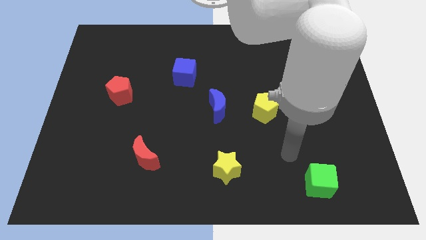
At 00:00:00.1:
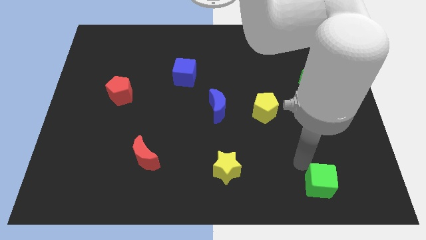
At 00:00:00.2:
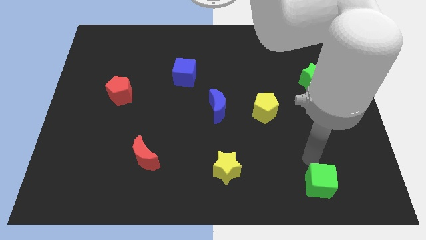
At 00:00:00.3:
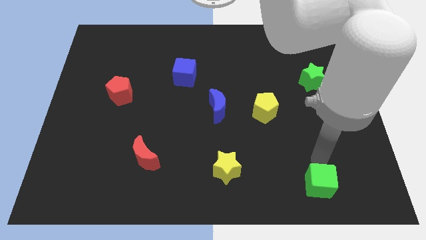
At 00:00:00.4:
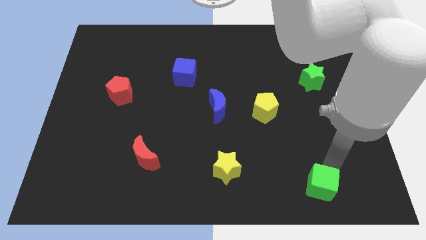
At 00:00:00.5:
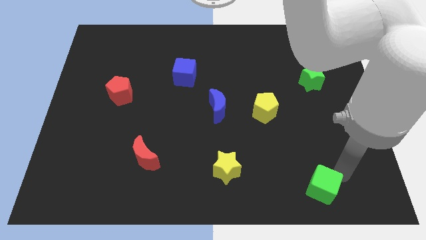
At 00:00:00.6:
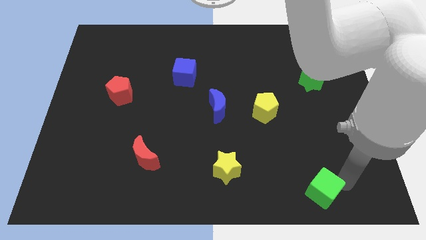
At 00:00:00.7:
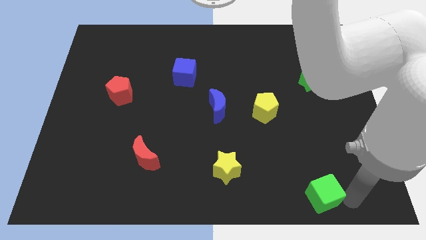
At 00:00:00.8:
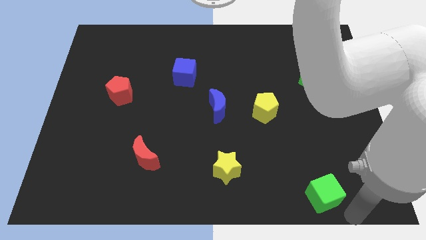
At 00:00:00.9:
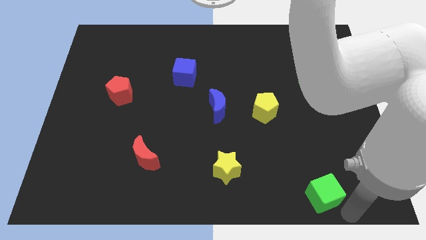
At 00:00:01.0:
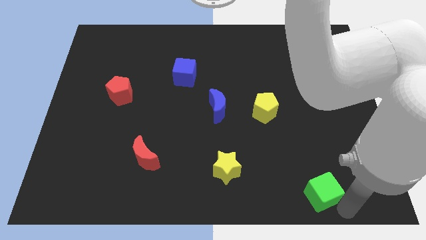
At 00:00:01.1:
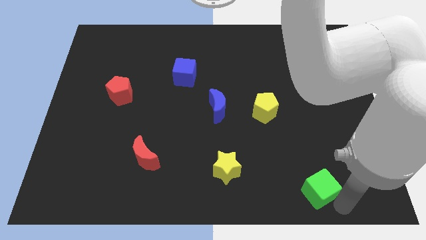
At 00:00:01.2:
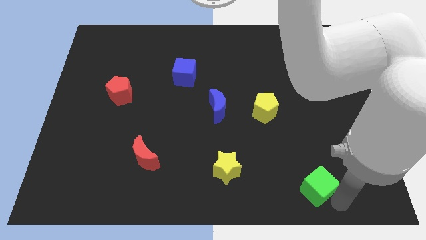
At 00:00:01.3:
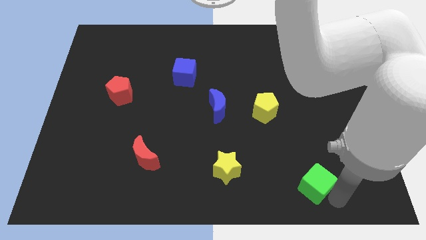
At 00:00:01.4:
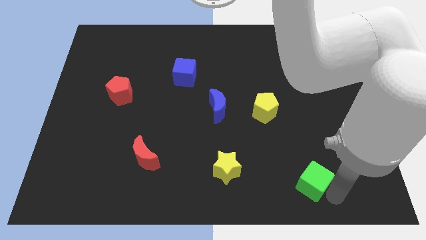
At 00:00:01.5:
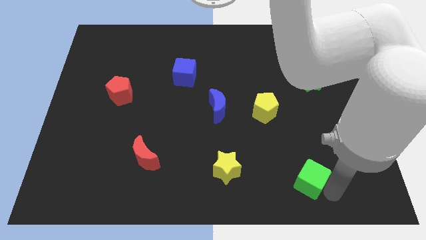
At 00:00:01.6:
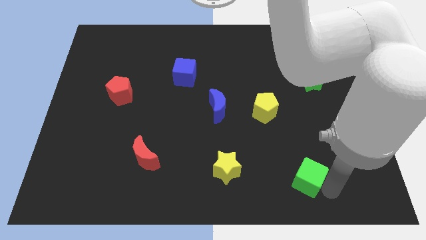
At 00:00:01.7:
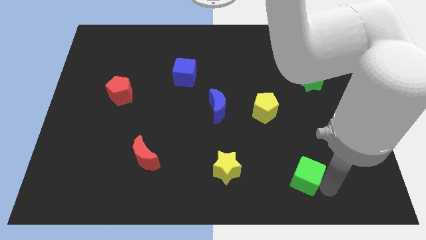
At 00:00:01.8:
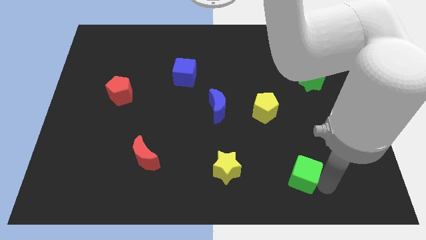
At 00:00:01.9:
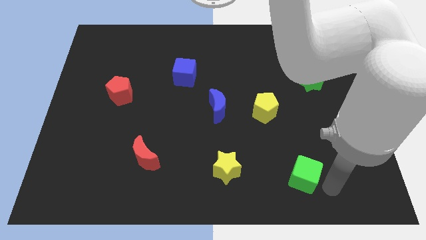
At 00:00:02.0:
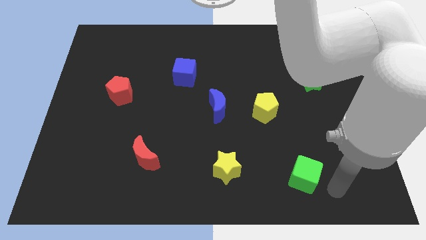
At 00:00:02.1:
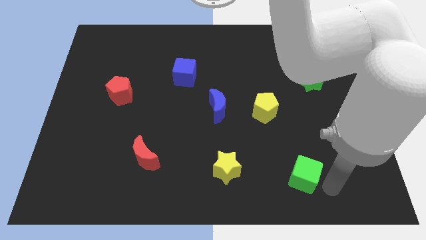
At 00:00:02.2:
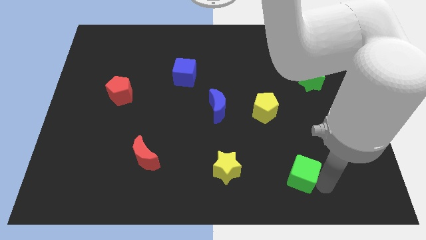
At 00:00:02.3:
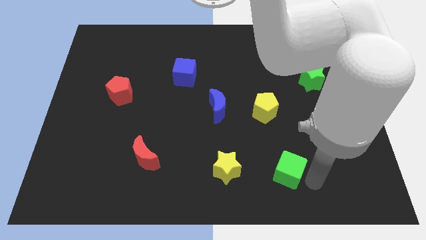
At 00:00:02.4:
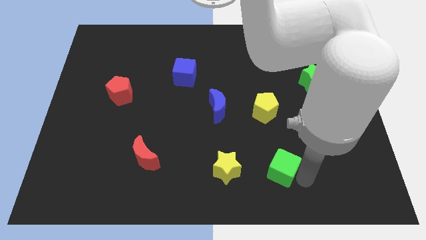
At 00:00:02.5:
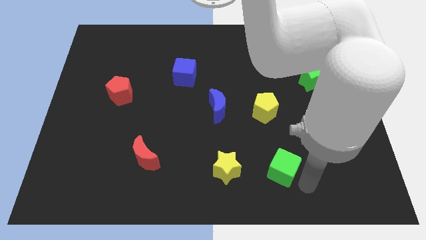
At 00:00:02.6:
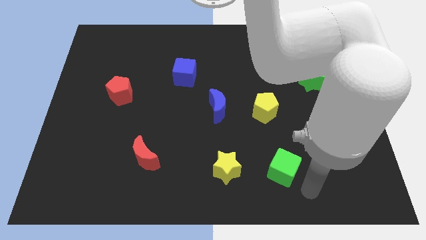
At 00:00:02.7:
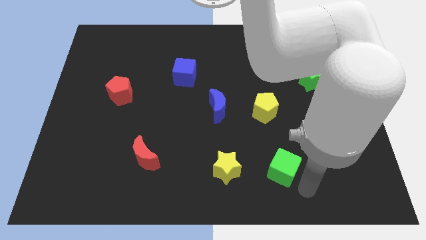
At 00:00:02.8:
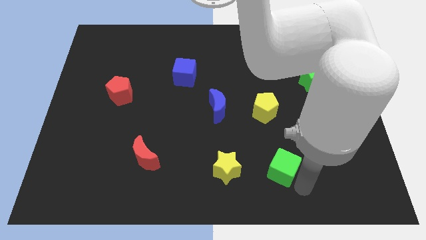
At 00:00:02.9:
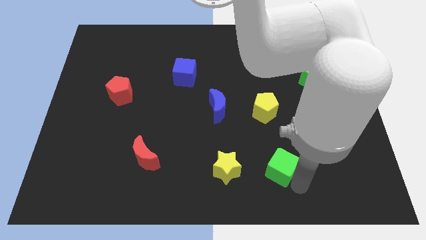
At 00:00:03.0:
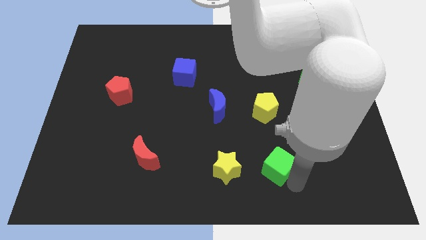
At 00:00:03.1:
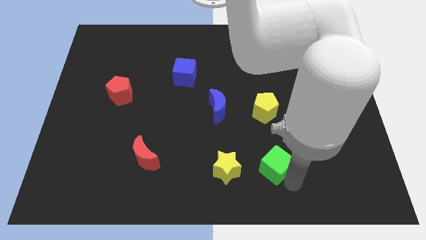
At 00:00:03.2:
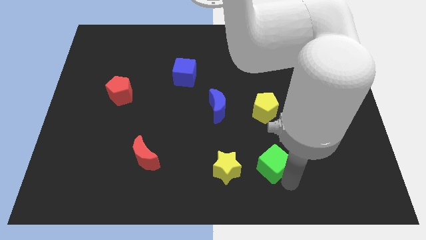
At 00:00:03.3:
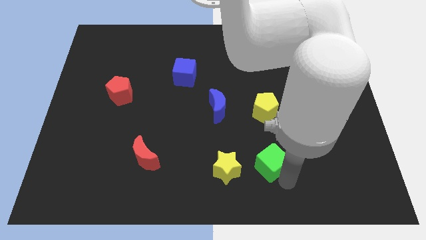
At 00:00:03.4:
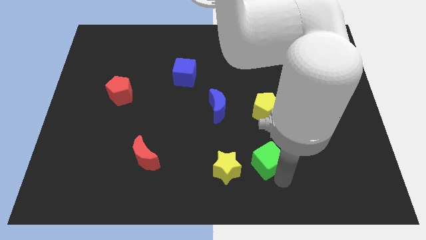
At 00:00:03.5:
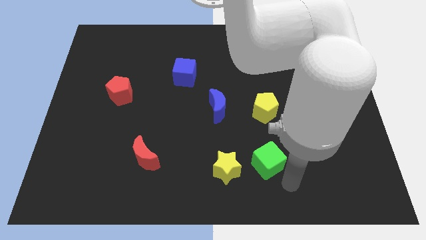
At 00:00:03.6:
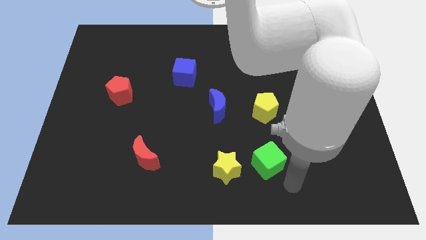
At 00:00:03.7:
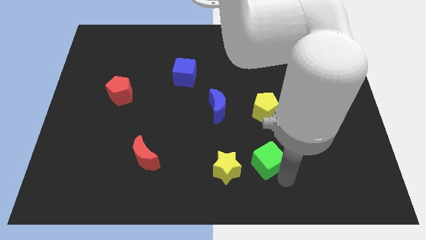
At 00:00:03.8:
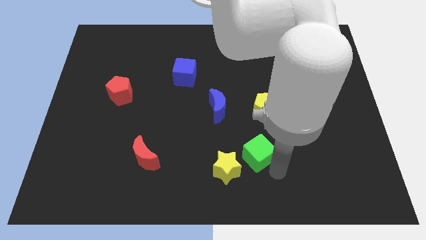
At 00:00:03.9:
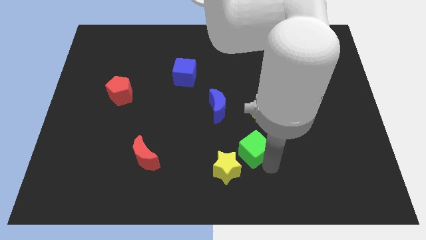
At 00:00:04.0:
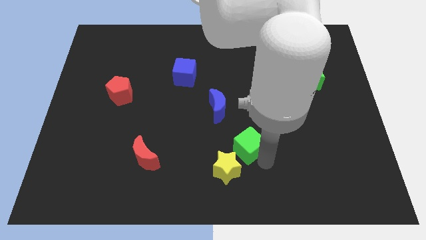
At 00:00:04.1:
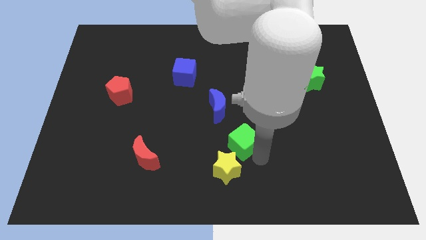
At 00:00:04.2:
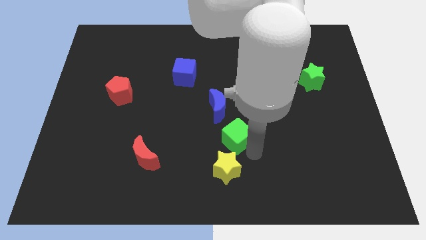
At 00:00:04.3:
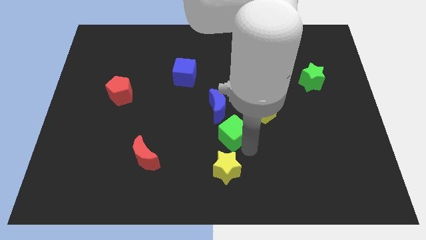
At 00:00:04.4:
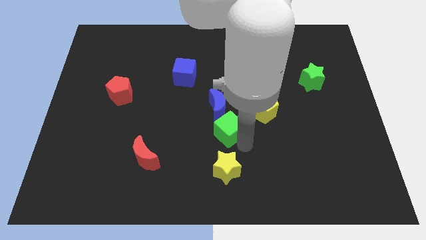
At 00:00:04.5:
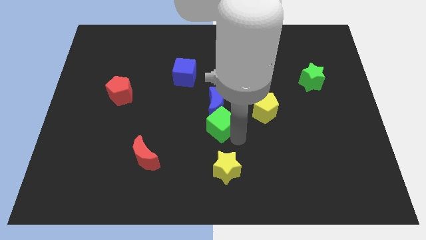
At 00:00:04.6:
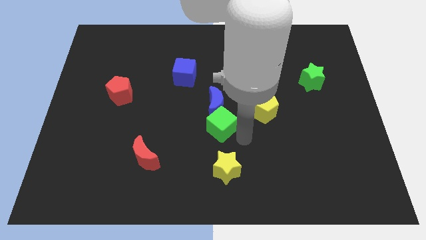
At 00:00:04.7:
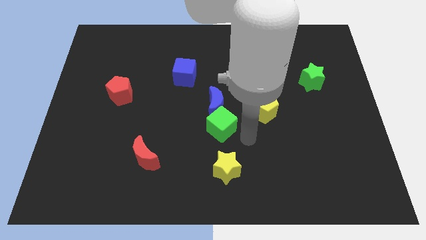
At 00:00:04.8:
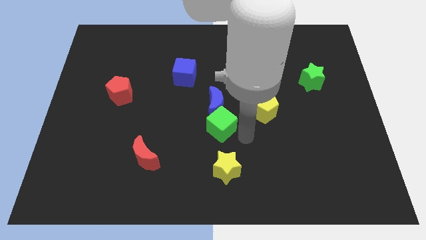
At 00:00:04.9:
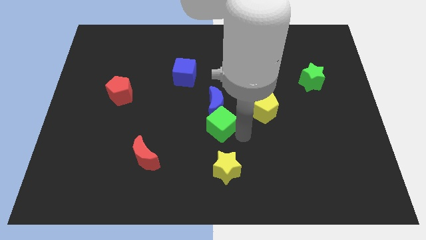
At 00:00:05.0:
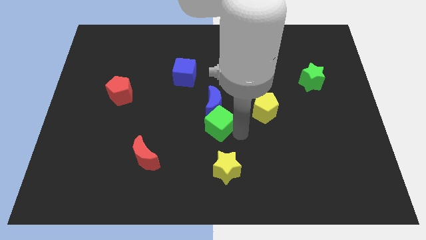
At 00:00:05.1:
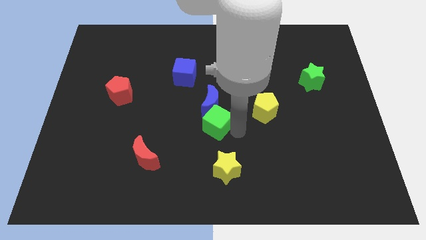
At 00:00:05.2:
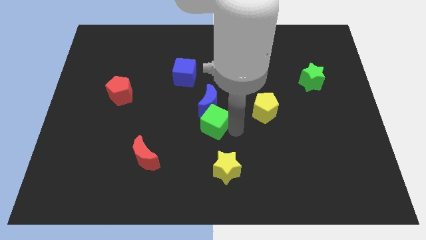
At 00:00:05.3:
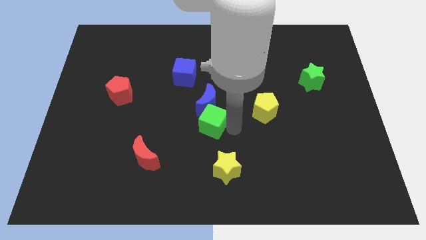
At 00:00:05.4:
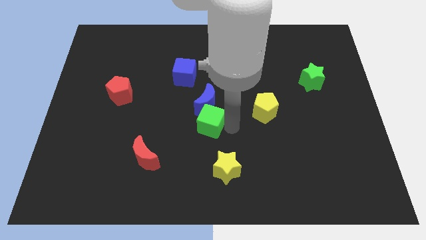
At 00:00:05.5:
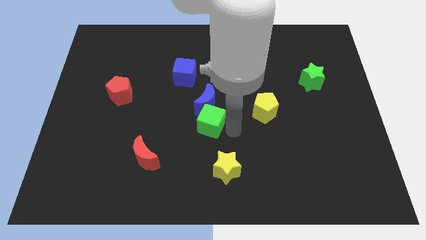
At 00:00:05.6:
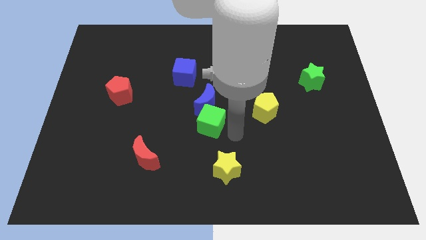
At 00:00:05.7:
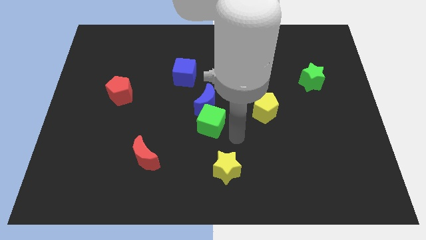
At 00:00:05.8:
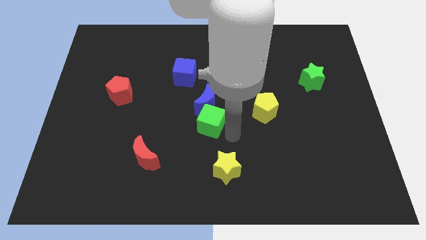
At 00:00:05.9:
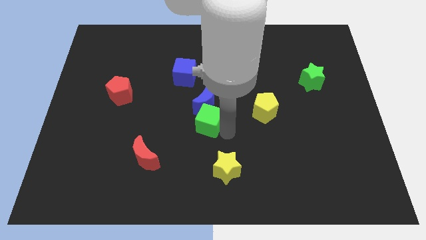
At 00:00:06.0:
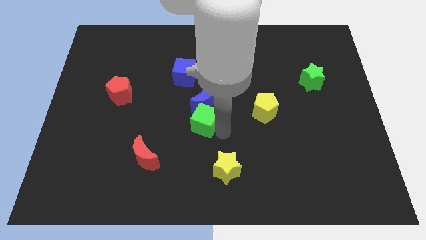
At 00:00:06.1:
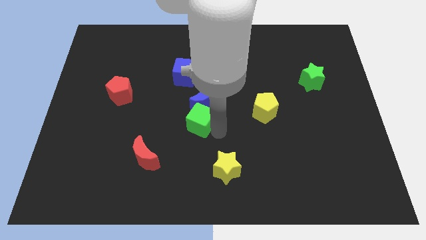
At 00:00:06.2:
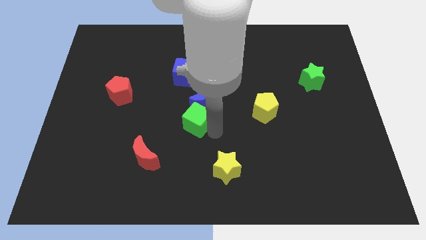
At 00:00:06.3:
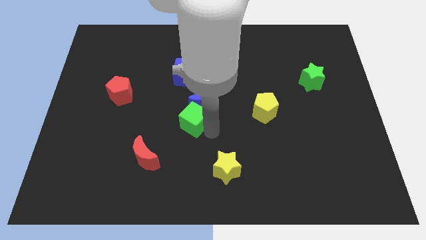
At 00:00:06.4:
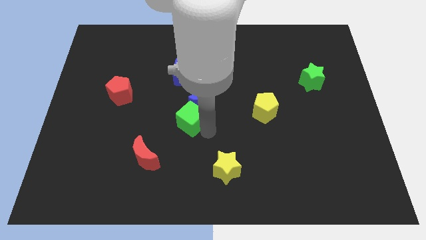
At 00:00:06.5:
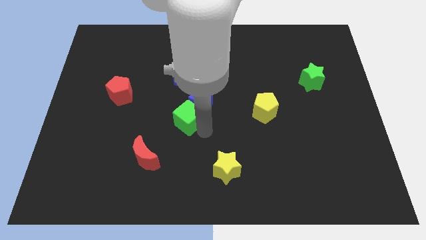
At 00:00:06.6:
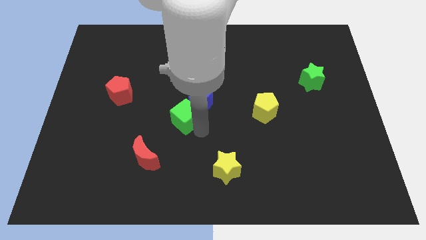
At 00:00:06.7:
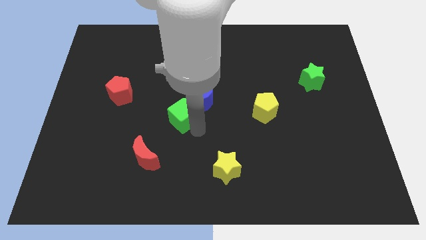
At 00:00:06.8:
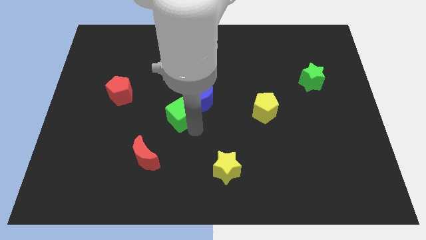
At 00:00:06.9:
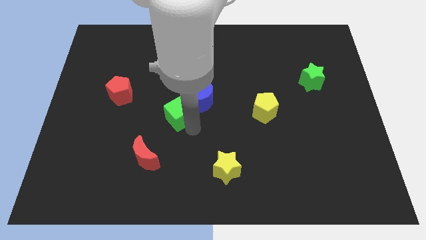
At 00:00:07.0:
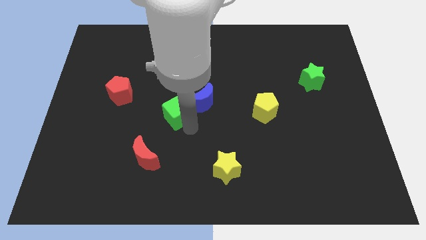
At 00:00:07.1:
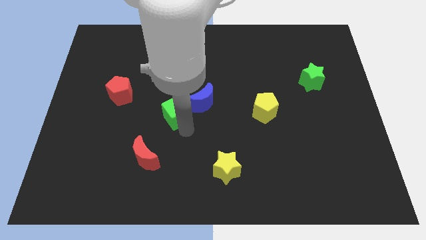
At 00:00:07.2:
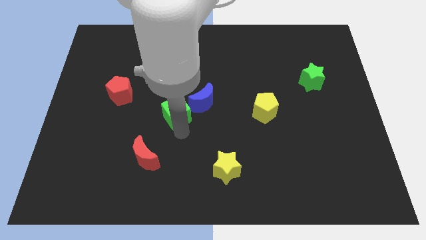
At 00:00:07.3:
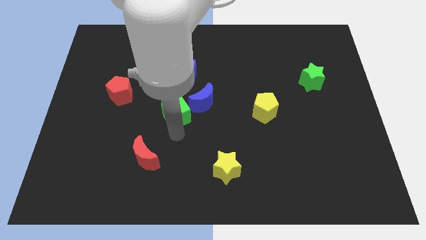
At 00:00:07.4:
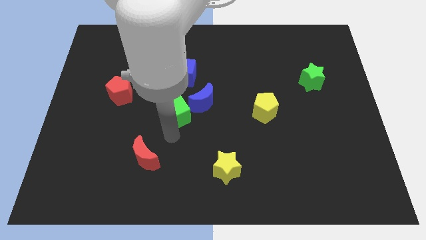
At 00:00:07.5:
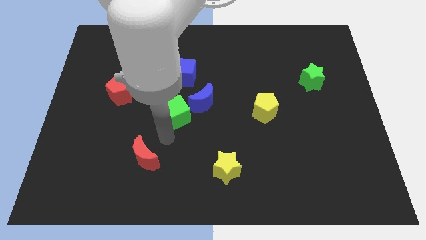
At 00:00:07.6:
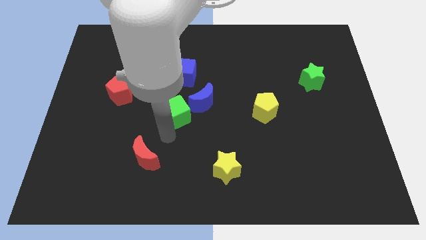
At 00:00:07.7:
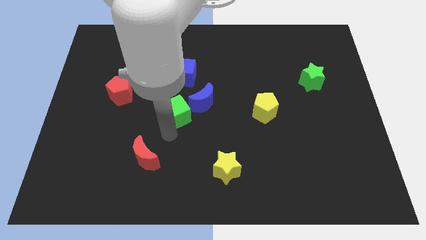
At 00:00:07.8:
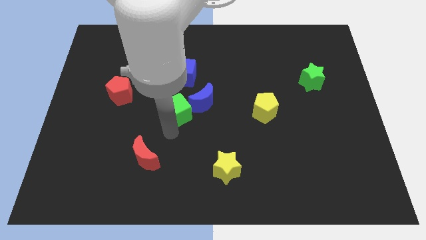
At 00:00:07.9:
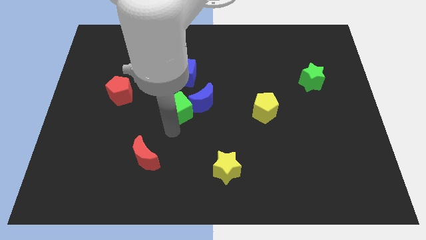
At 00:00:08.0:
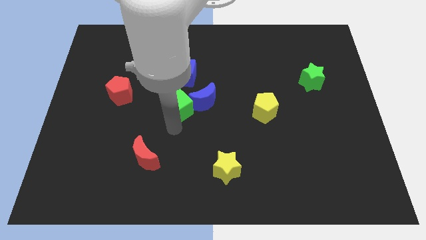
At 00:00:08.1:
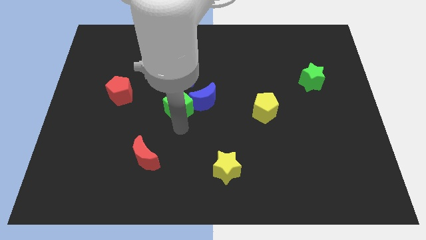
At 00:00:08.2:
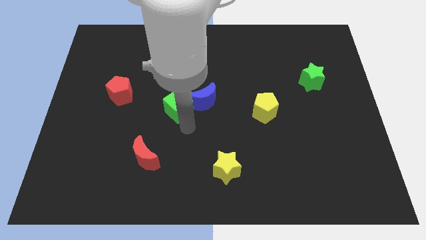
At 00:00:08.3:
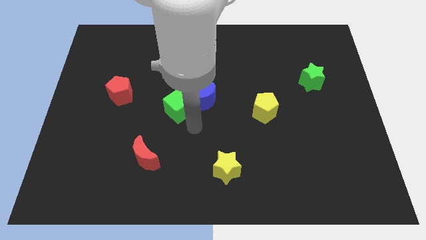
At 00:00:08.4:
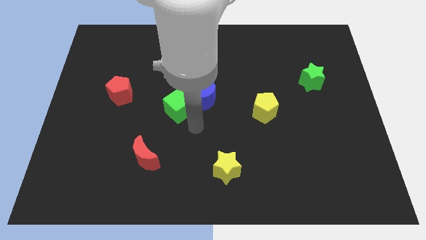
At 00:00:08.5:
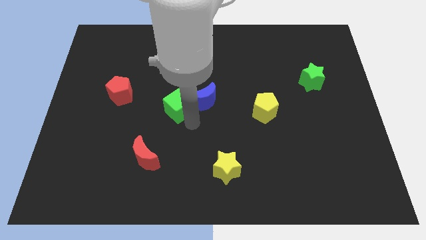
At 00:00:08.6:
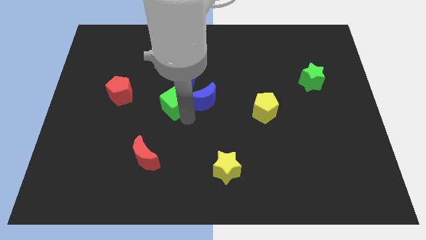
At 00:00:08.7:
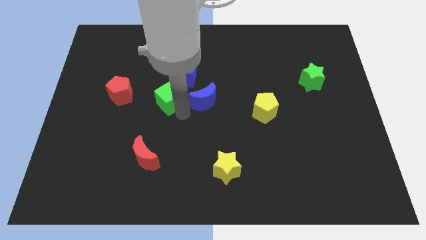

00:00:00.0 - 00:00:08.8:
move the green cube diagonally down and to the left of the blue cube
